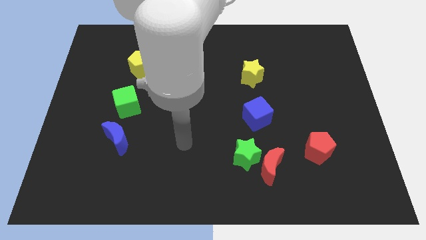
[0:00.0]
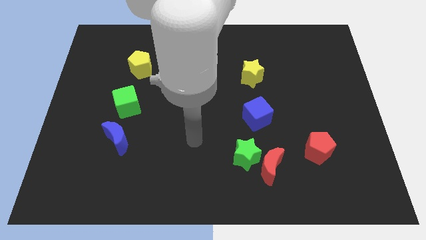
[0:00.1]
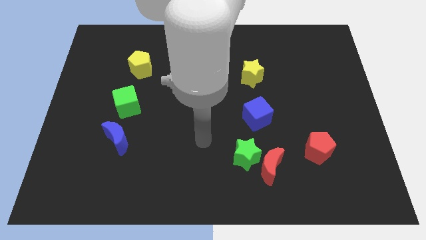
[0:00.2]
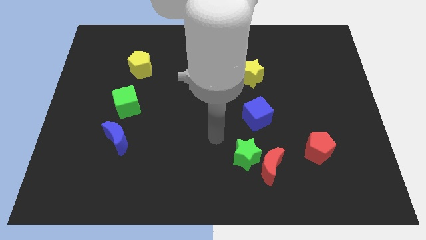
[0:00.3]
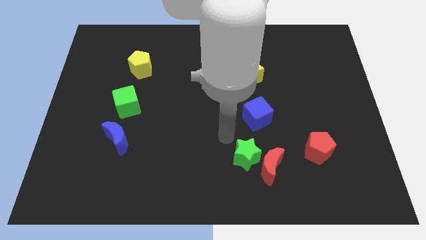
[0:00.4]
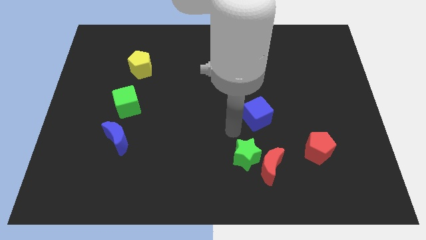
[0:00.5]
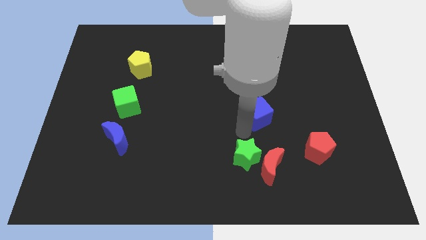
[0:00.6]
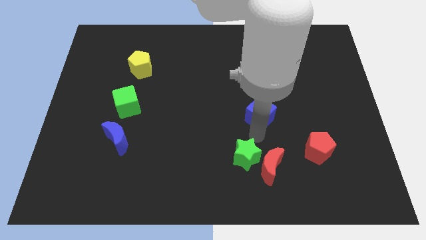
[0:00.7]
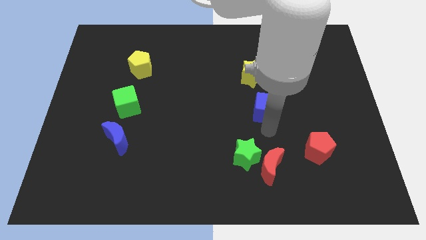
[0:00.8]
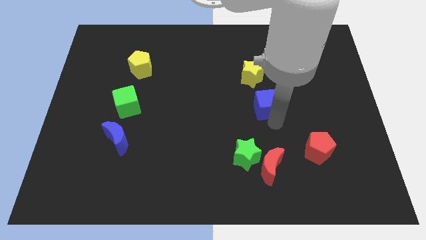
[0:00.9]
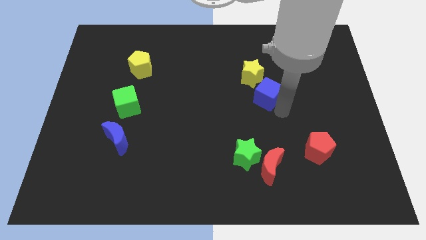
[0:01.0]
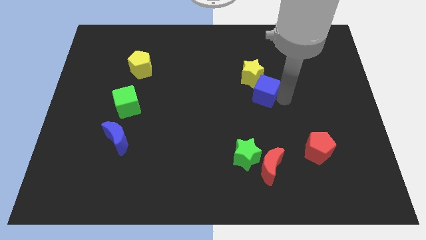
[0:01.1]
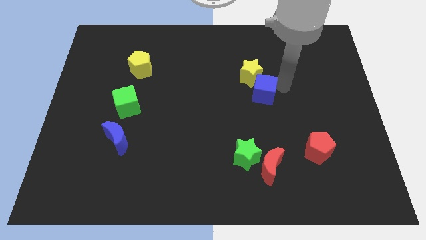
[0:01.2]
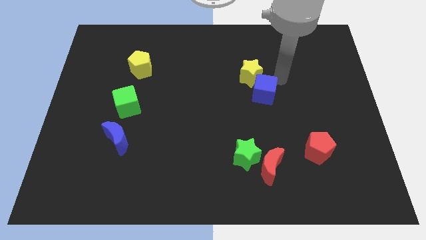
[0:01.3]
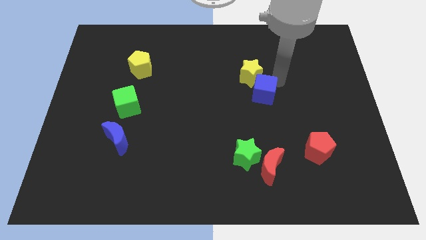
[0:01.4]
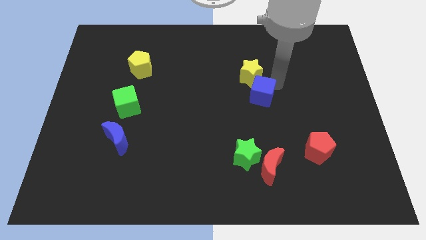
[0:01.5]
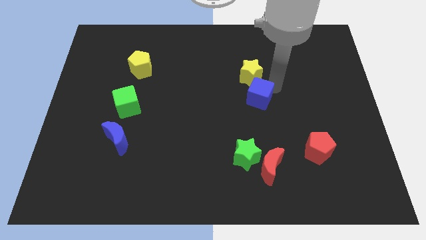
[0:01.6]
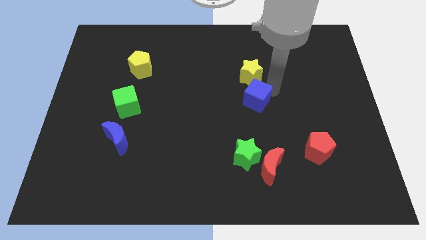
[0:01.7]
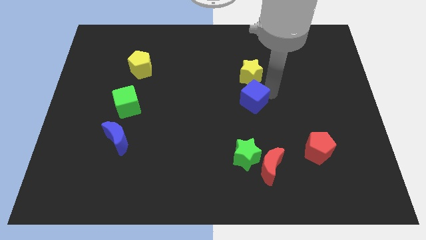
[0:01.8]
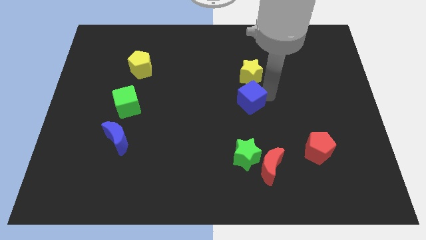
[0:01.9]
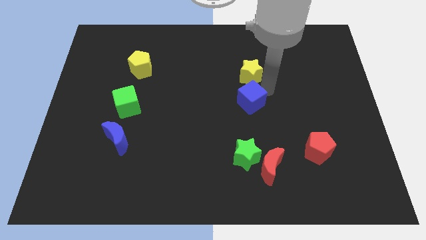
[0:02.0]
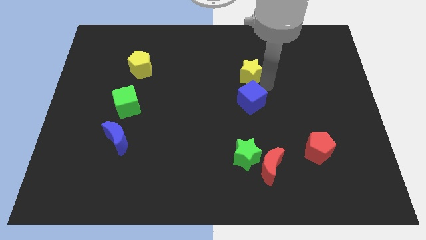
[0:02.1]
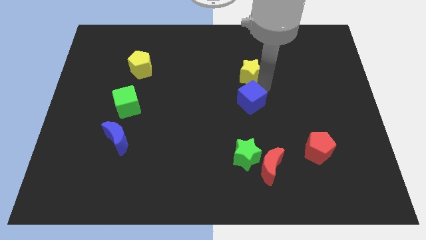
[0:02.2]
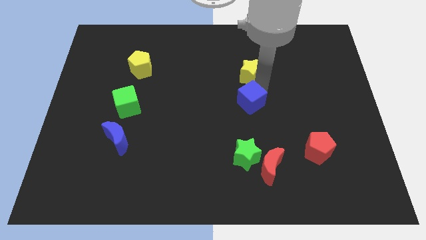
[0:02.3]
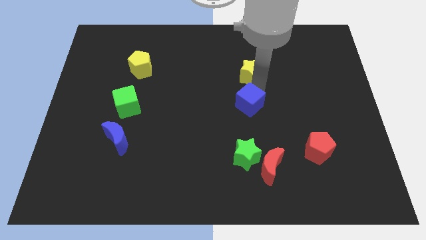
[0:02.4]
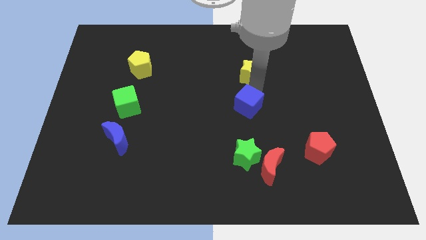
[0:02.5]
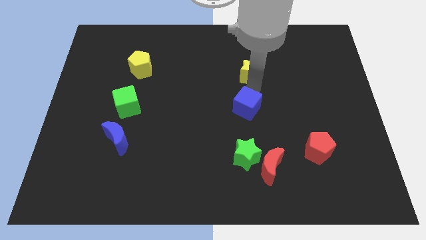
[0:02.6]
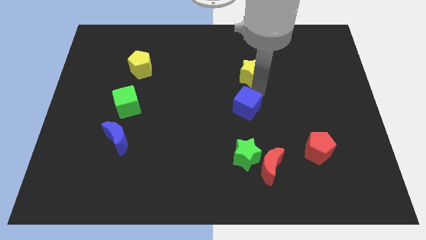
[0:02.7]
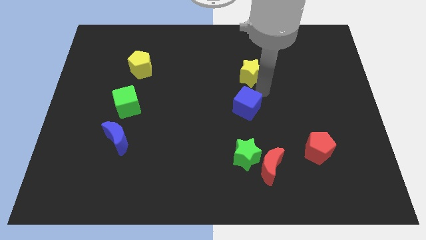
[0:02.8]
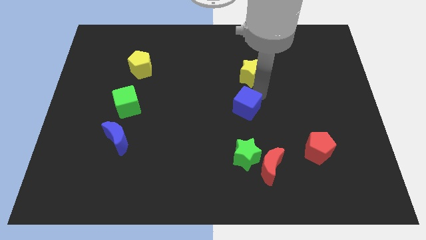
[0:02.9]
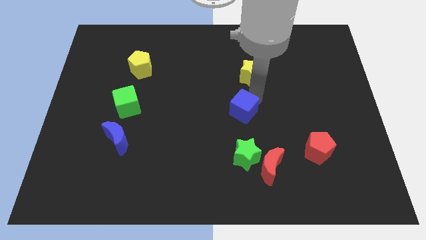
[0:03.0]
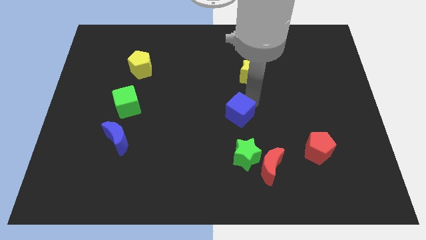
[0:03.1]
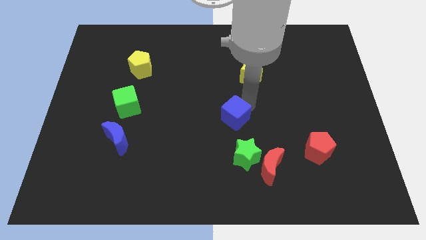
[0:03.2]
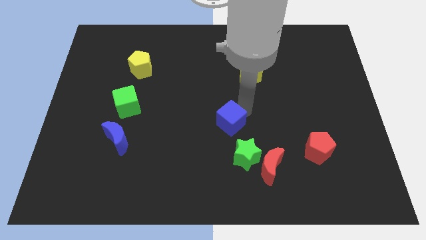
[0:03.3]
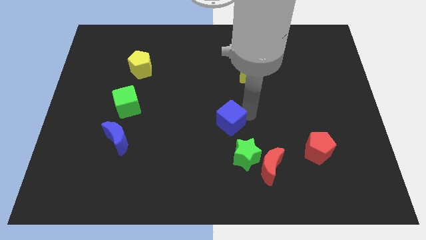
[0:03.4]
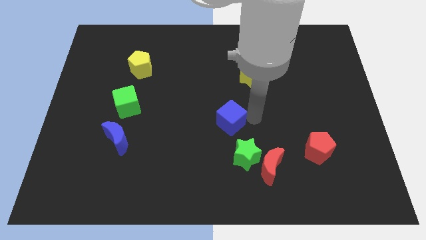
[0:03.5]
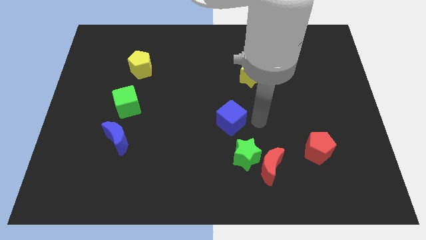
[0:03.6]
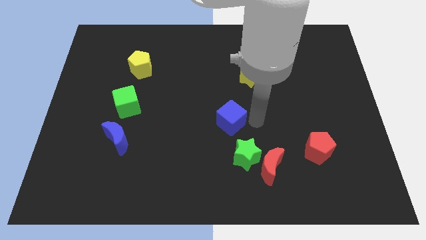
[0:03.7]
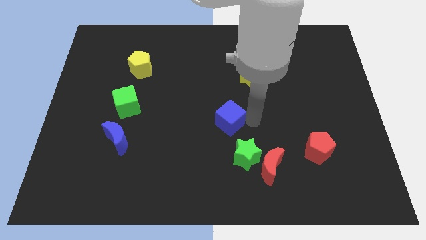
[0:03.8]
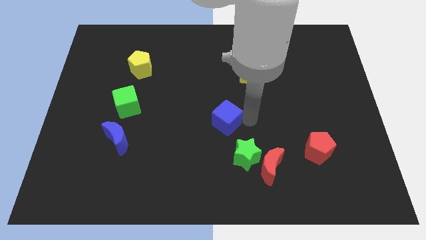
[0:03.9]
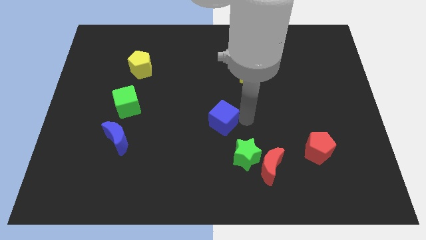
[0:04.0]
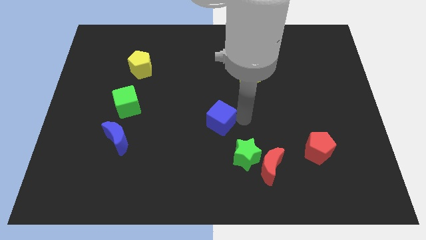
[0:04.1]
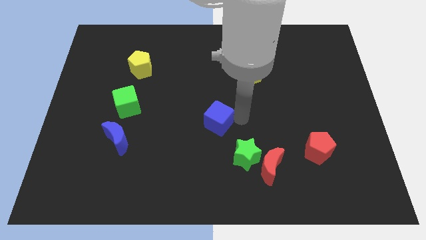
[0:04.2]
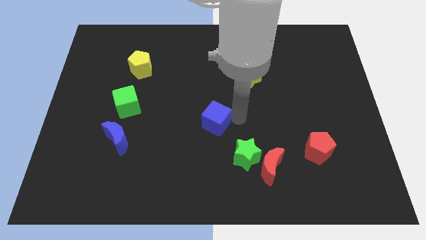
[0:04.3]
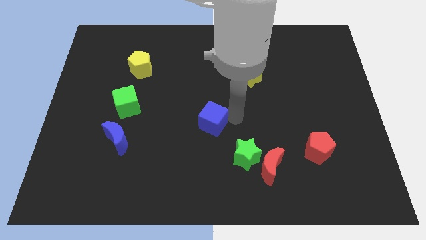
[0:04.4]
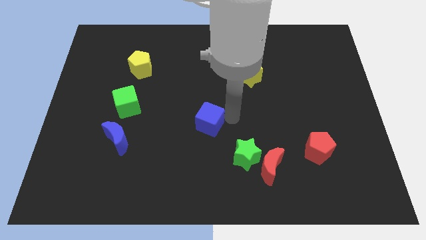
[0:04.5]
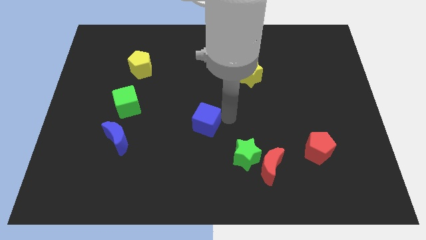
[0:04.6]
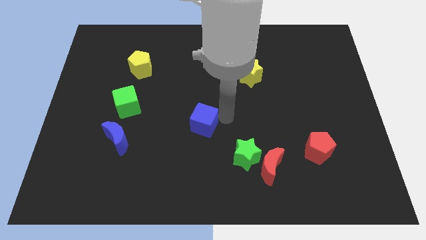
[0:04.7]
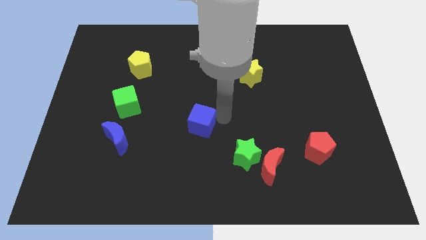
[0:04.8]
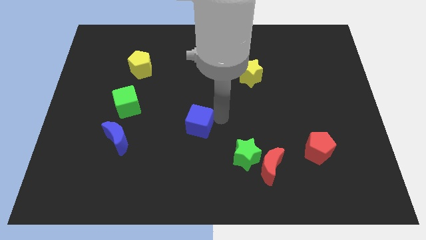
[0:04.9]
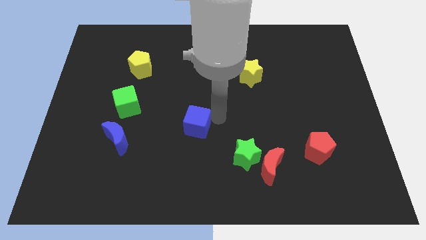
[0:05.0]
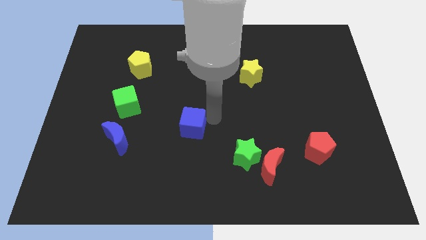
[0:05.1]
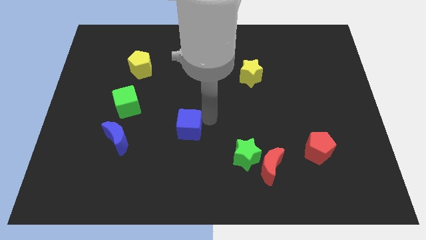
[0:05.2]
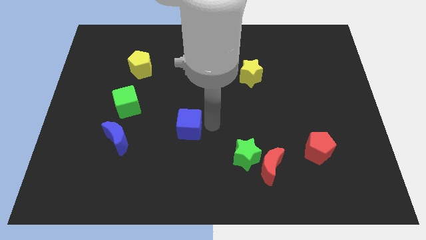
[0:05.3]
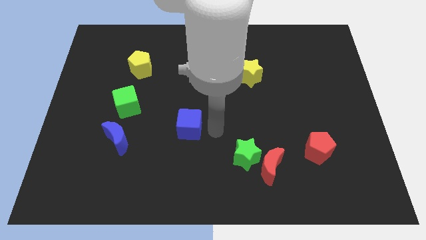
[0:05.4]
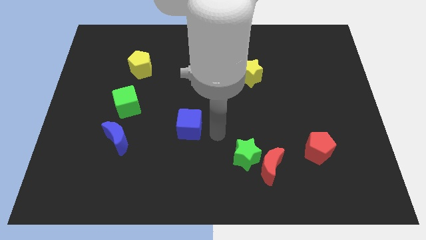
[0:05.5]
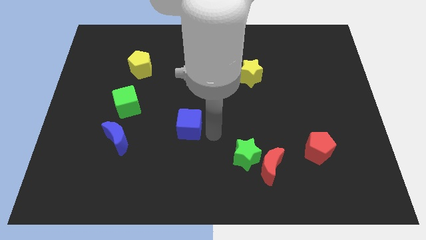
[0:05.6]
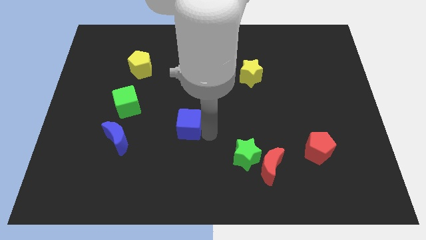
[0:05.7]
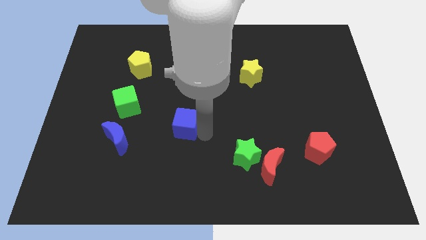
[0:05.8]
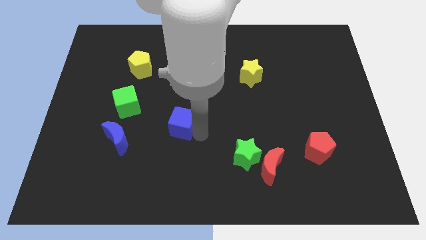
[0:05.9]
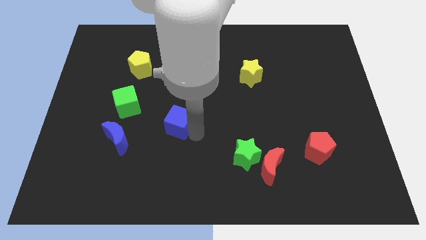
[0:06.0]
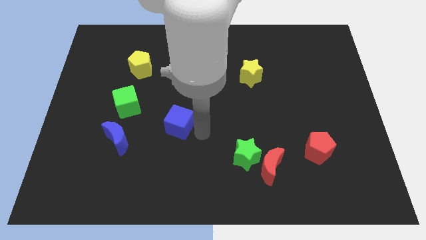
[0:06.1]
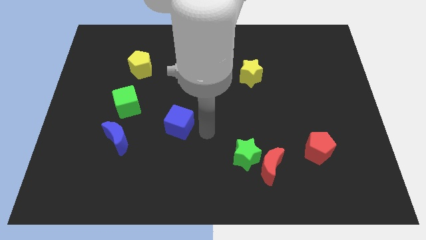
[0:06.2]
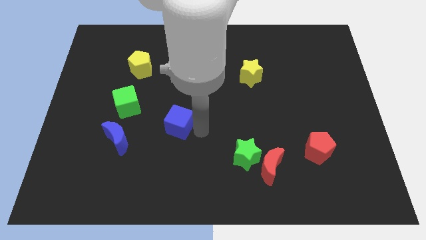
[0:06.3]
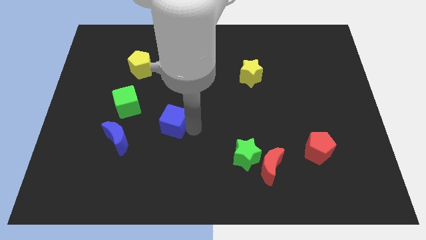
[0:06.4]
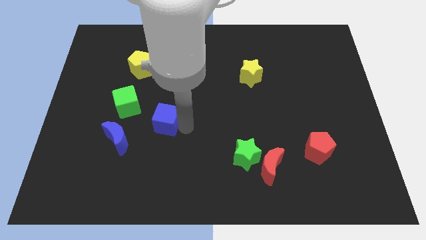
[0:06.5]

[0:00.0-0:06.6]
push the blue cube left

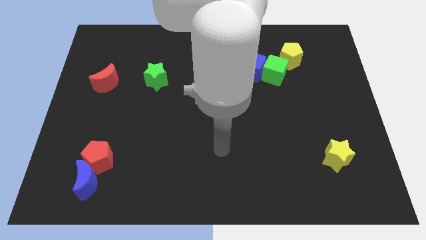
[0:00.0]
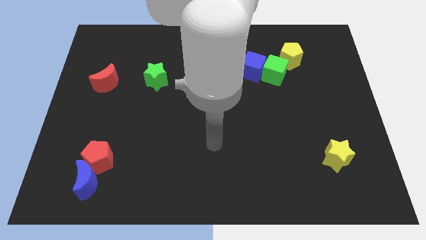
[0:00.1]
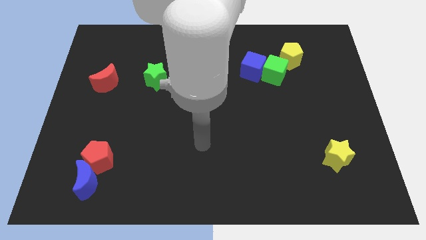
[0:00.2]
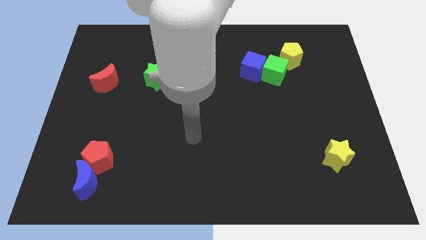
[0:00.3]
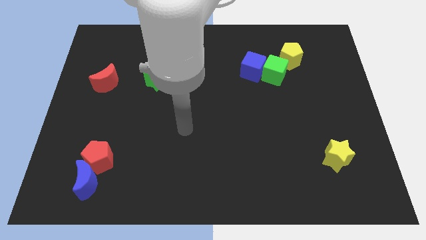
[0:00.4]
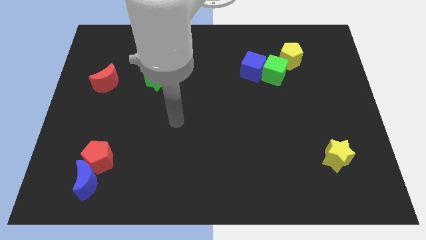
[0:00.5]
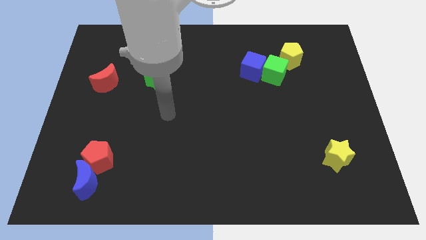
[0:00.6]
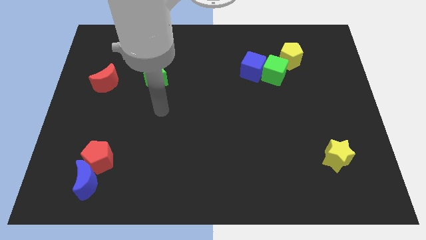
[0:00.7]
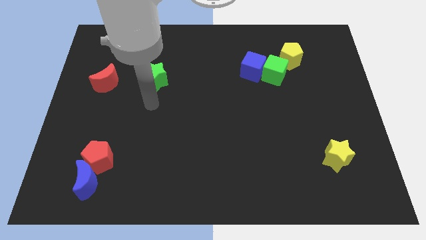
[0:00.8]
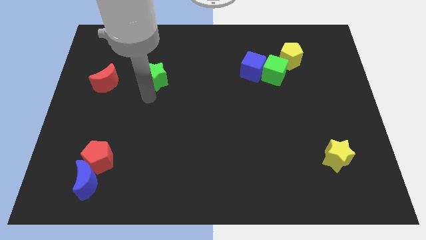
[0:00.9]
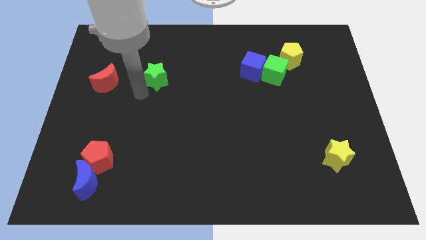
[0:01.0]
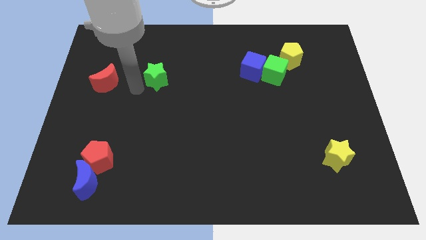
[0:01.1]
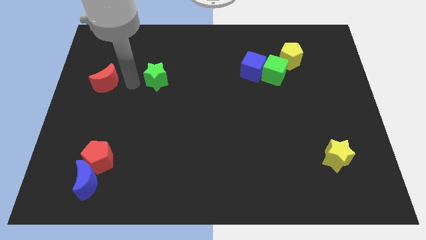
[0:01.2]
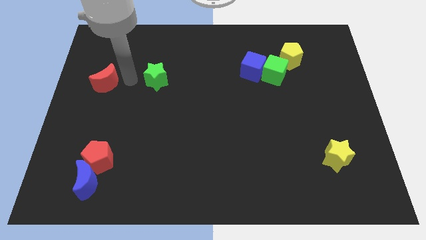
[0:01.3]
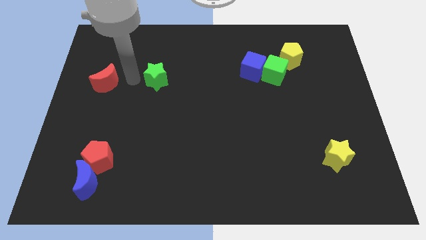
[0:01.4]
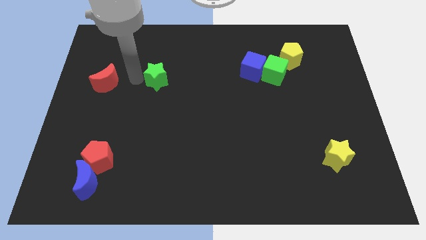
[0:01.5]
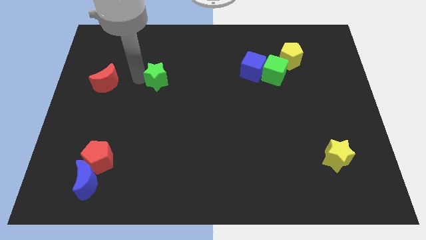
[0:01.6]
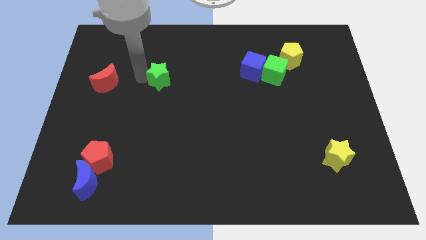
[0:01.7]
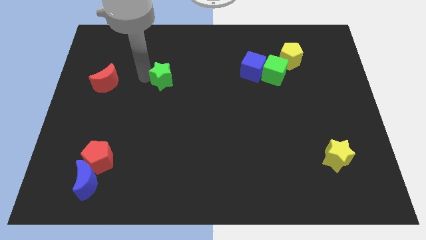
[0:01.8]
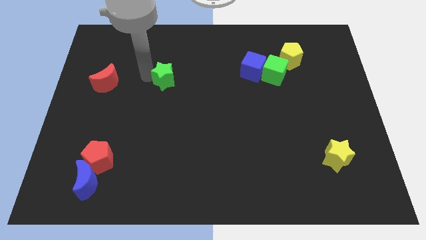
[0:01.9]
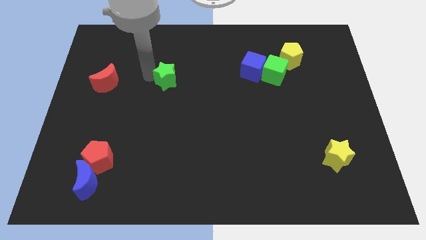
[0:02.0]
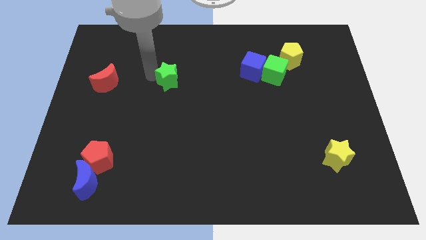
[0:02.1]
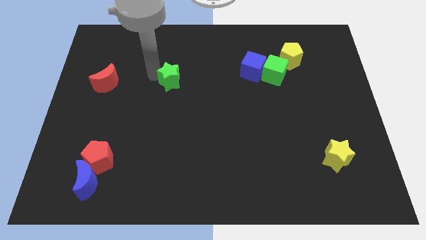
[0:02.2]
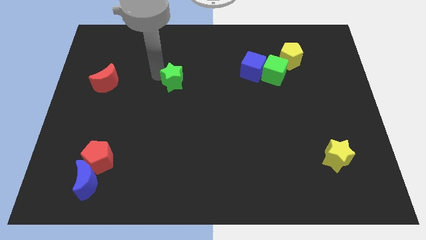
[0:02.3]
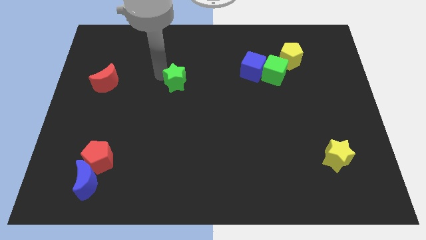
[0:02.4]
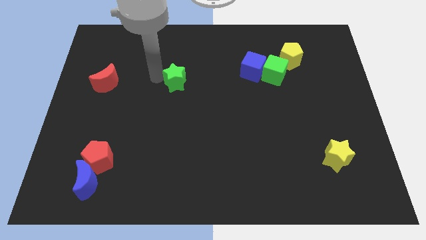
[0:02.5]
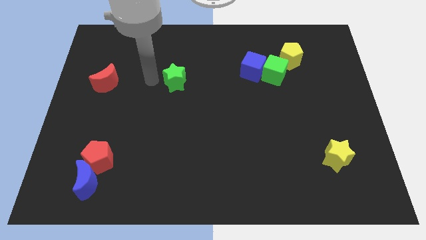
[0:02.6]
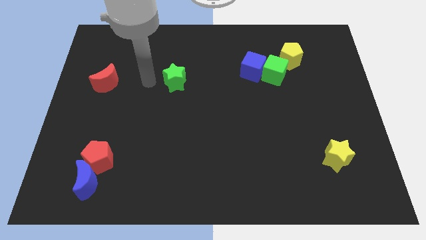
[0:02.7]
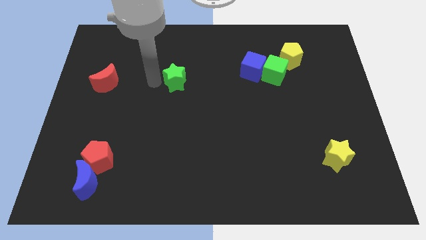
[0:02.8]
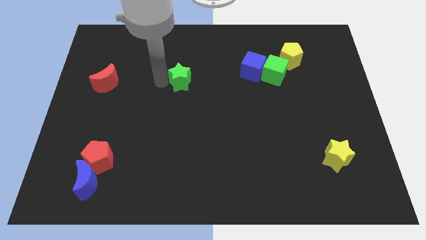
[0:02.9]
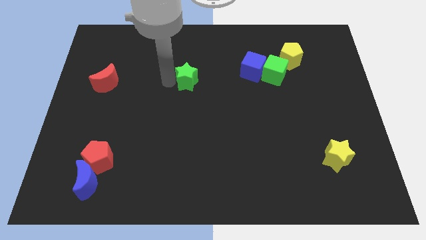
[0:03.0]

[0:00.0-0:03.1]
slide the green star somewhat right
